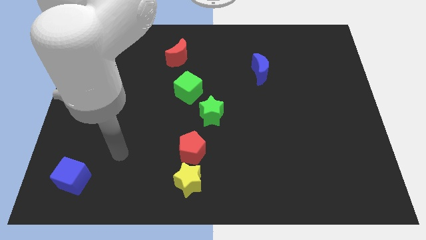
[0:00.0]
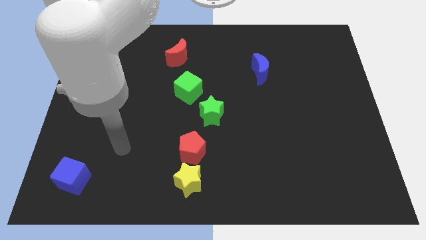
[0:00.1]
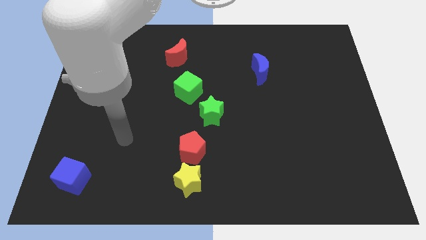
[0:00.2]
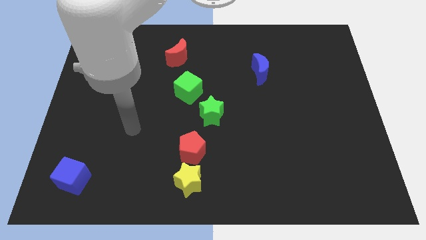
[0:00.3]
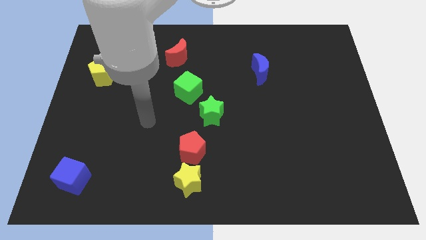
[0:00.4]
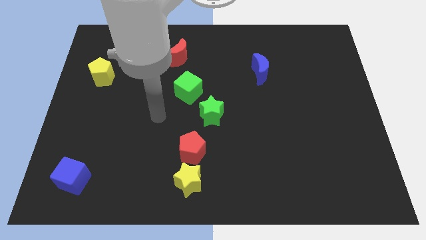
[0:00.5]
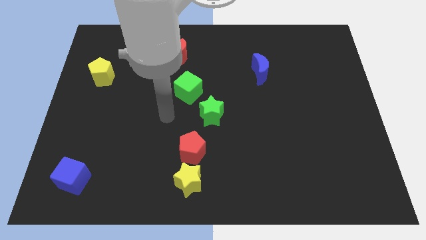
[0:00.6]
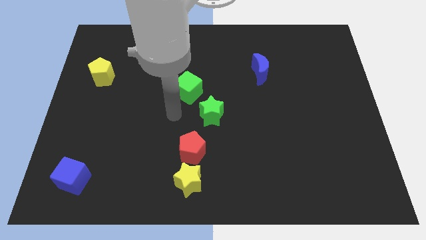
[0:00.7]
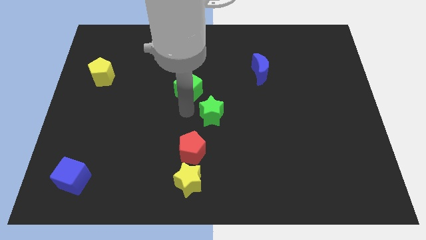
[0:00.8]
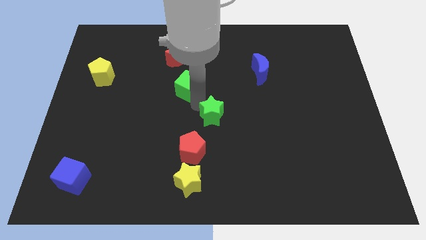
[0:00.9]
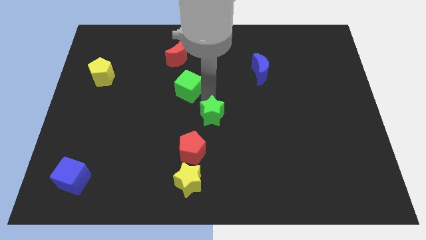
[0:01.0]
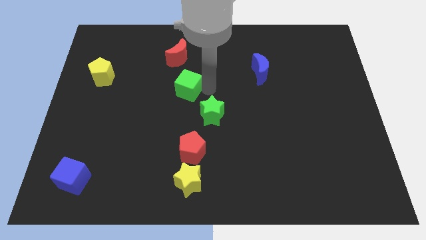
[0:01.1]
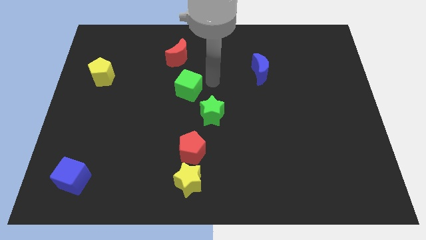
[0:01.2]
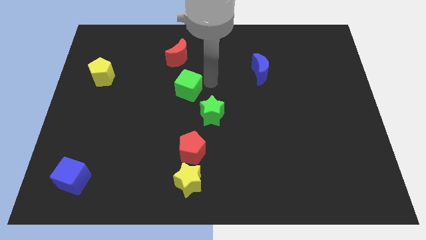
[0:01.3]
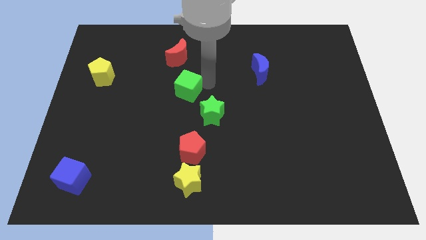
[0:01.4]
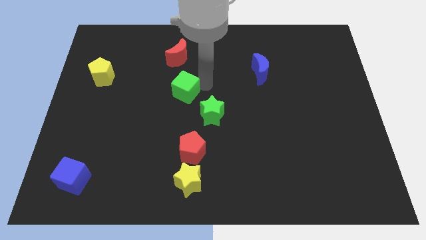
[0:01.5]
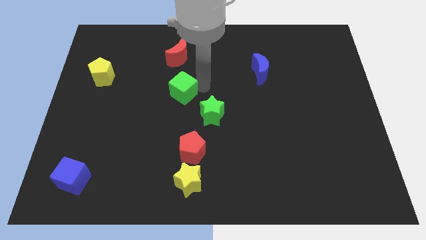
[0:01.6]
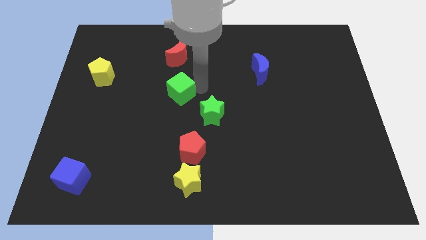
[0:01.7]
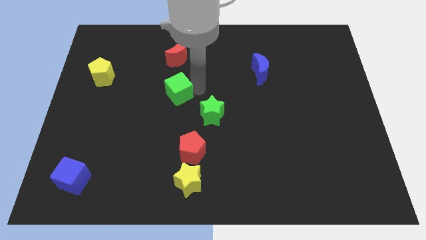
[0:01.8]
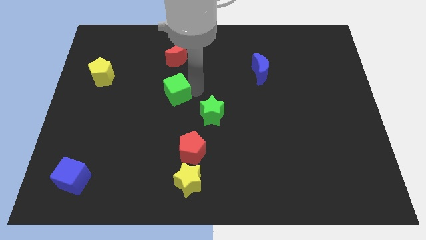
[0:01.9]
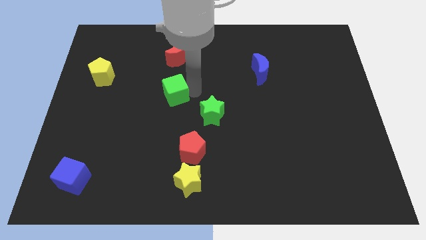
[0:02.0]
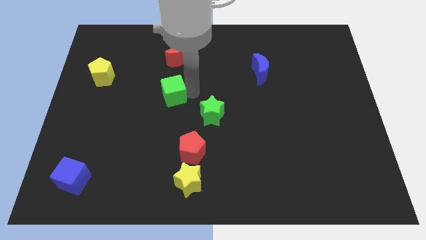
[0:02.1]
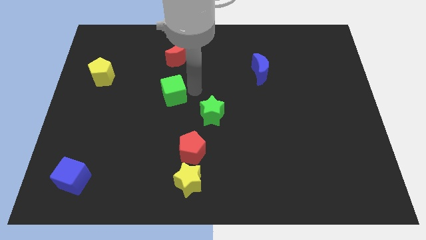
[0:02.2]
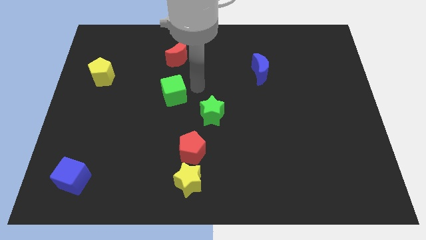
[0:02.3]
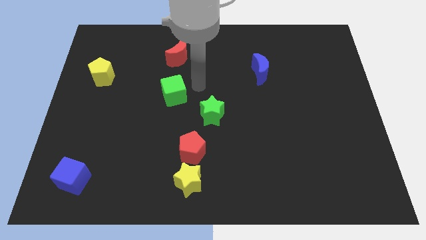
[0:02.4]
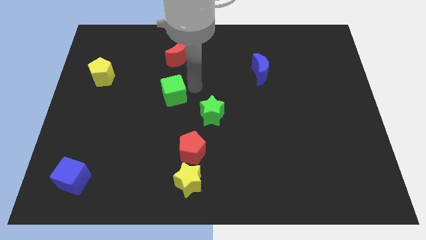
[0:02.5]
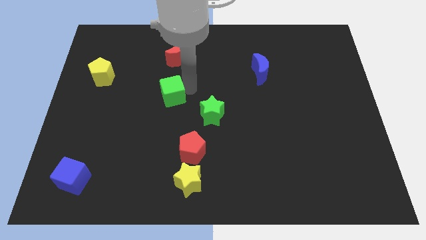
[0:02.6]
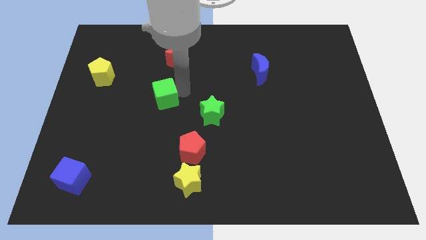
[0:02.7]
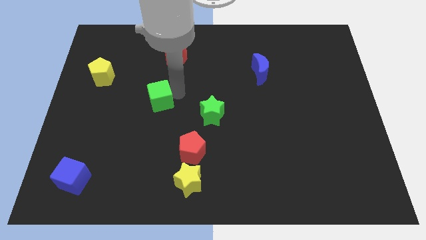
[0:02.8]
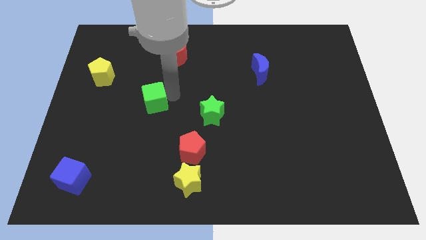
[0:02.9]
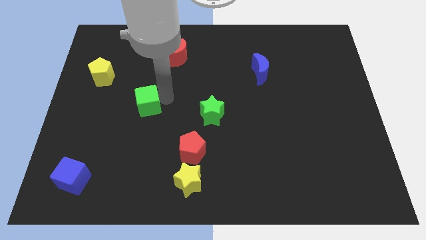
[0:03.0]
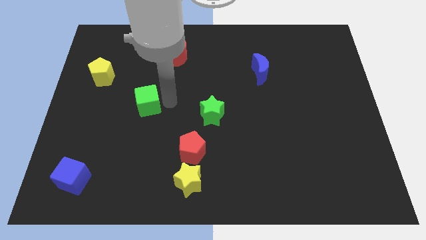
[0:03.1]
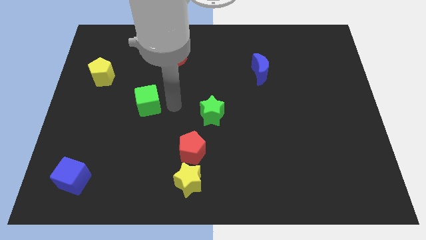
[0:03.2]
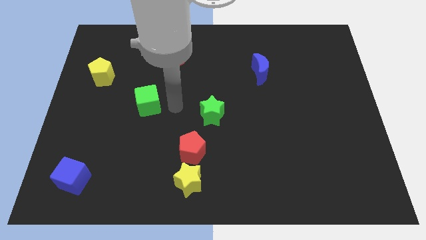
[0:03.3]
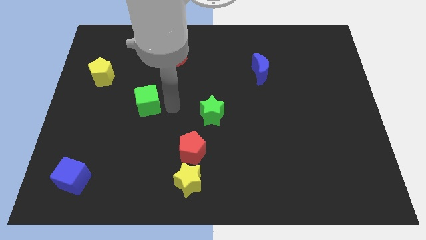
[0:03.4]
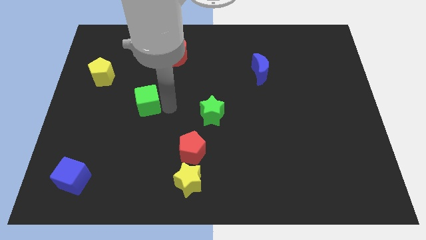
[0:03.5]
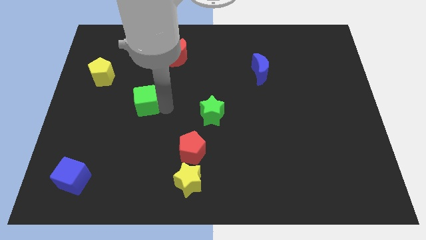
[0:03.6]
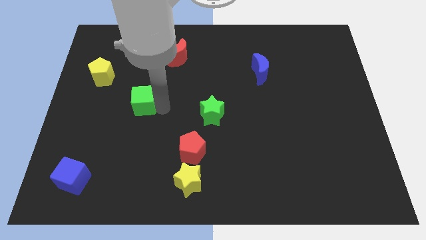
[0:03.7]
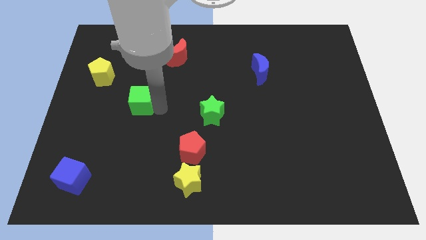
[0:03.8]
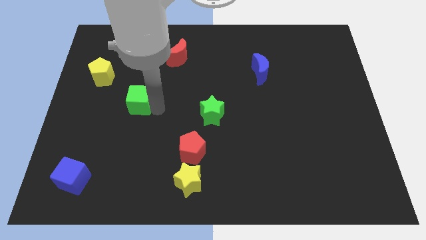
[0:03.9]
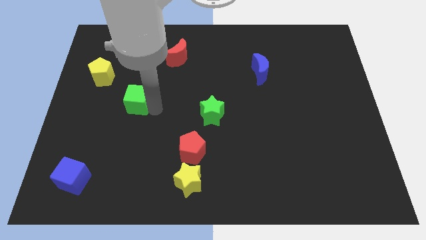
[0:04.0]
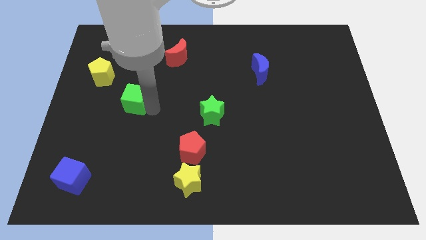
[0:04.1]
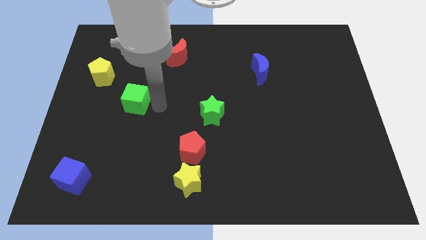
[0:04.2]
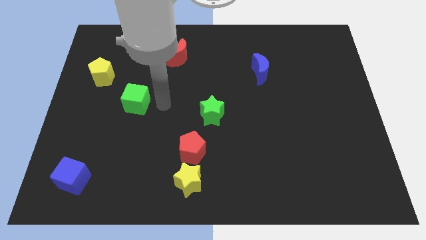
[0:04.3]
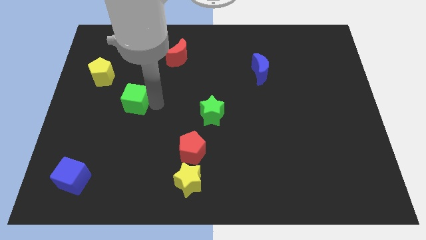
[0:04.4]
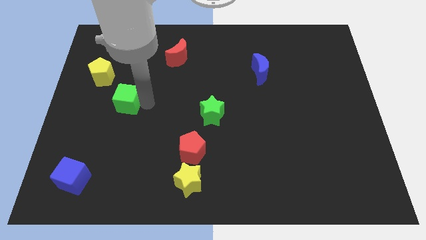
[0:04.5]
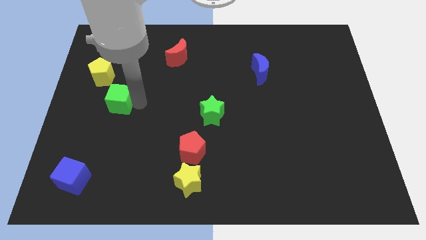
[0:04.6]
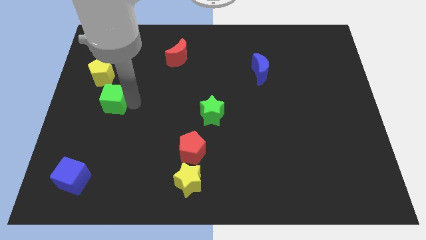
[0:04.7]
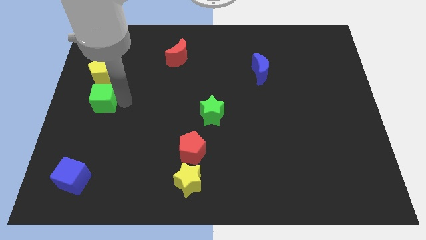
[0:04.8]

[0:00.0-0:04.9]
push the green cube to the center left

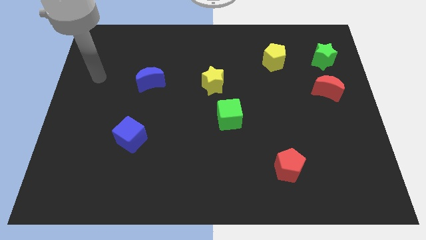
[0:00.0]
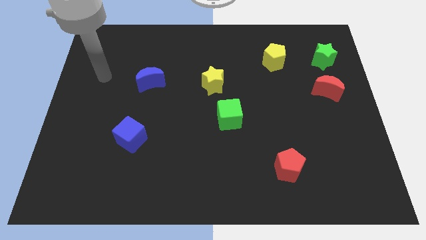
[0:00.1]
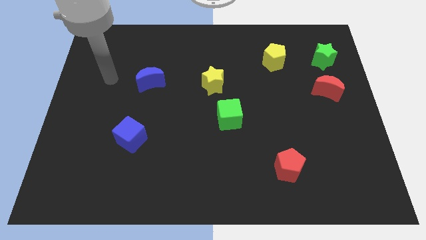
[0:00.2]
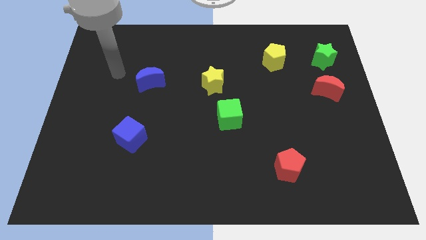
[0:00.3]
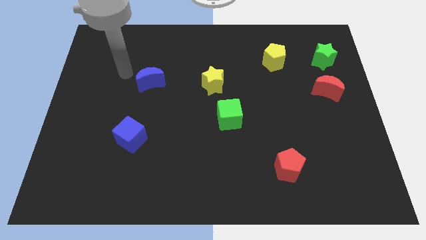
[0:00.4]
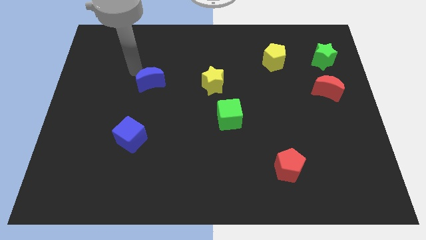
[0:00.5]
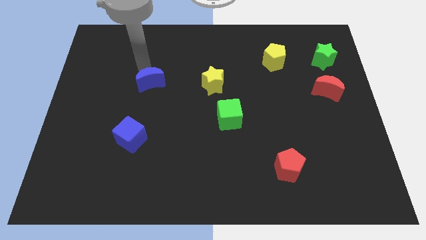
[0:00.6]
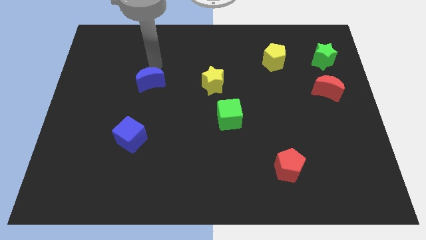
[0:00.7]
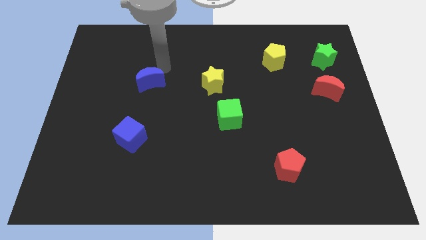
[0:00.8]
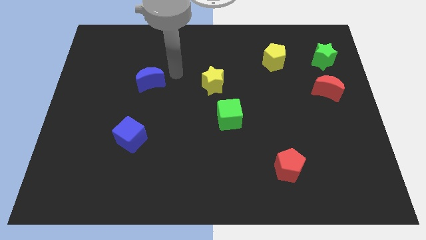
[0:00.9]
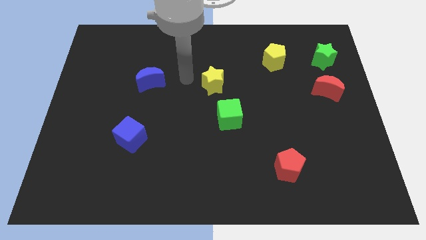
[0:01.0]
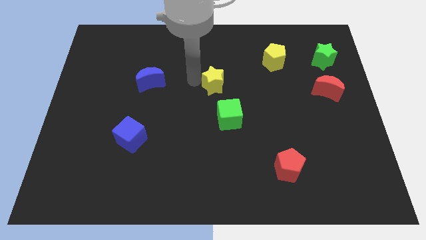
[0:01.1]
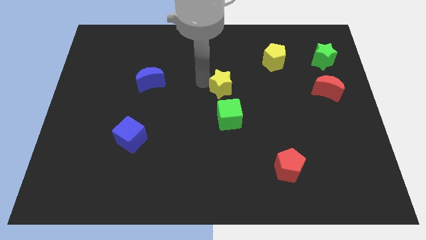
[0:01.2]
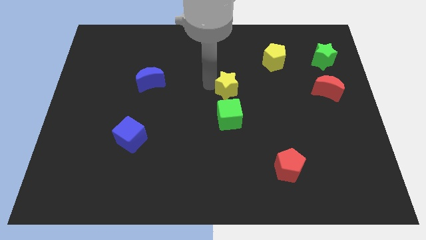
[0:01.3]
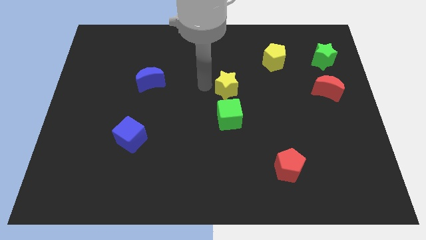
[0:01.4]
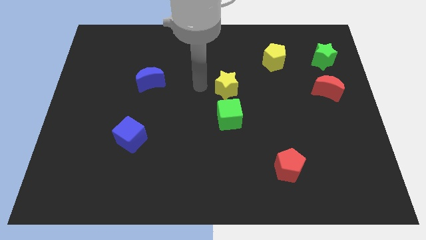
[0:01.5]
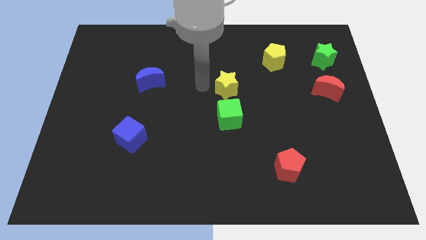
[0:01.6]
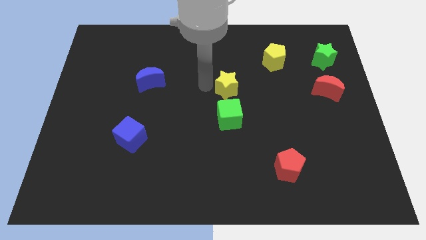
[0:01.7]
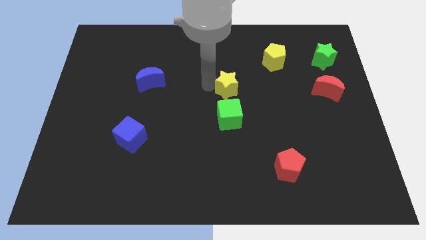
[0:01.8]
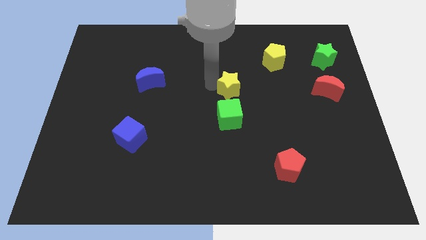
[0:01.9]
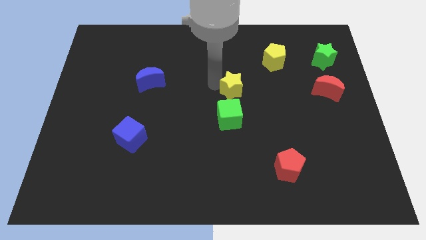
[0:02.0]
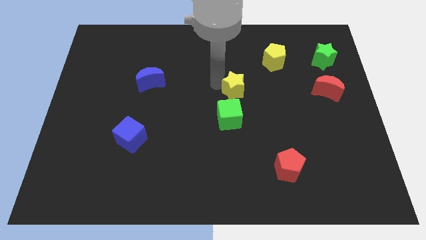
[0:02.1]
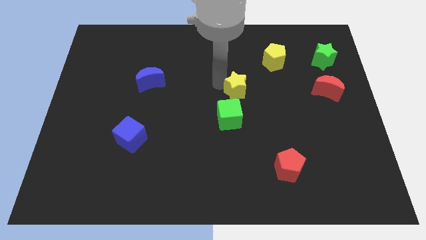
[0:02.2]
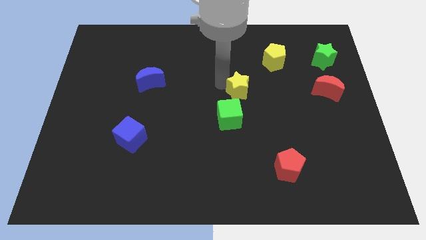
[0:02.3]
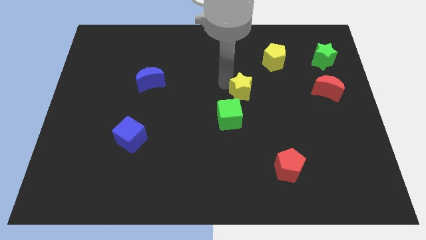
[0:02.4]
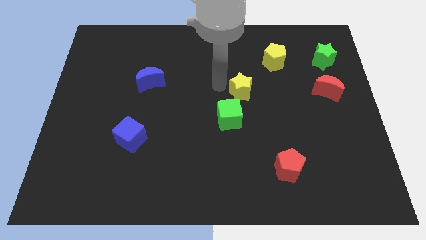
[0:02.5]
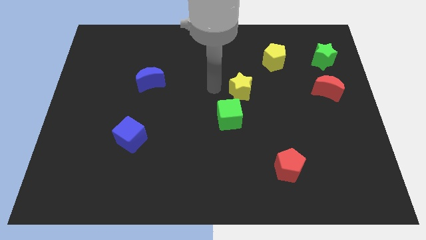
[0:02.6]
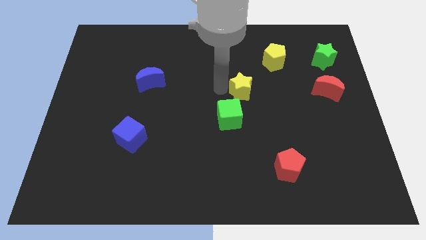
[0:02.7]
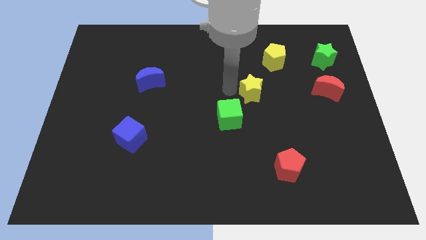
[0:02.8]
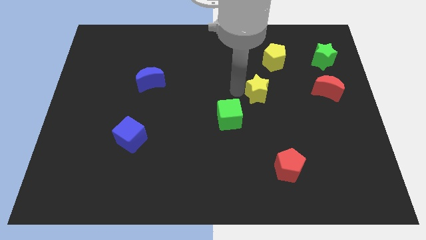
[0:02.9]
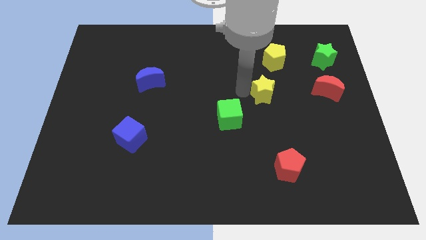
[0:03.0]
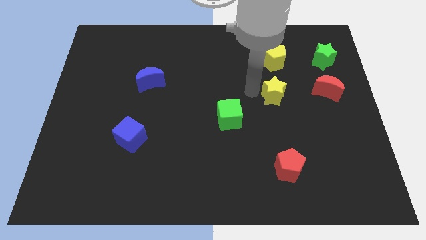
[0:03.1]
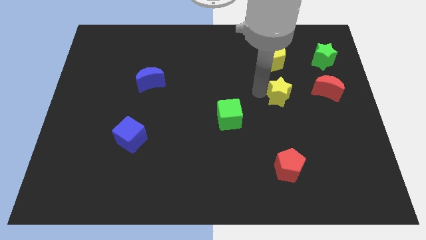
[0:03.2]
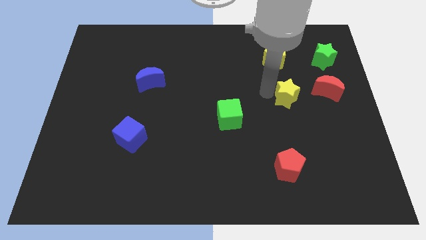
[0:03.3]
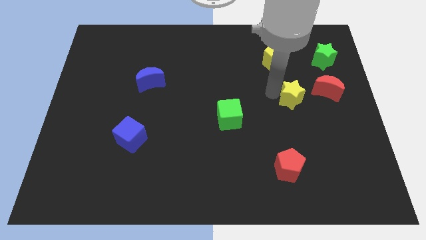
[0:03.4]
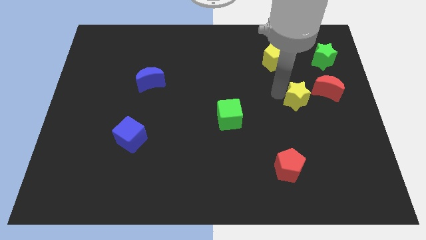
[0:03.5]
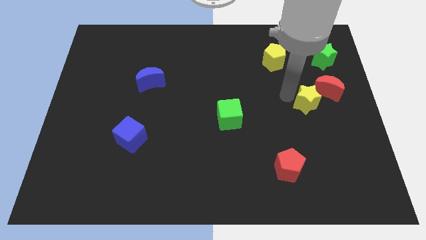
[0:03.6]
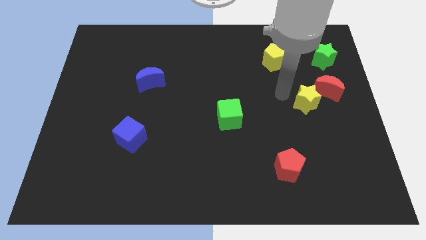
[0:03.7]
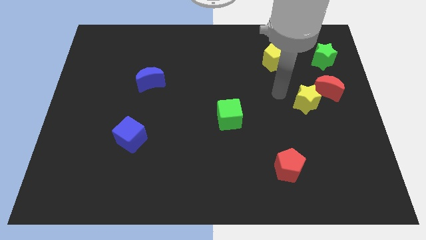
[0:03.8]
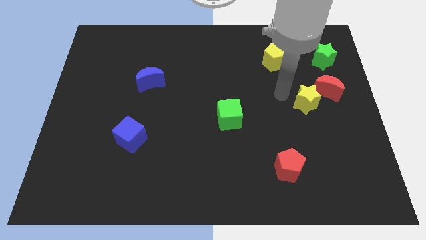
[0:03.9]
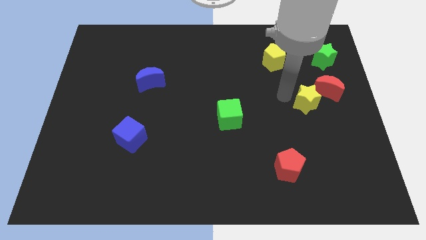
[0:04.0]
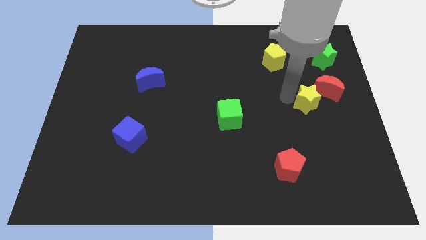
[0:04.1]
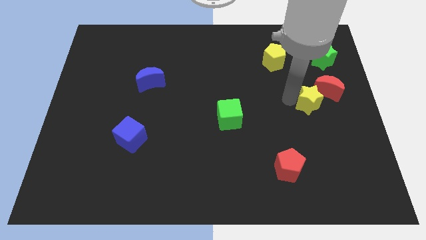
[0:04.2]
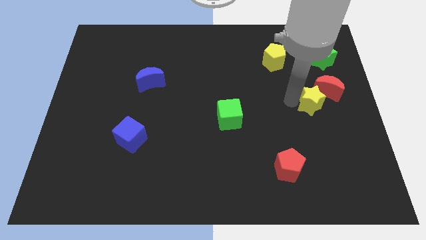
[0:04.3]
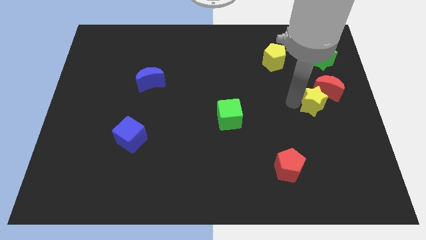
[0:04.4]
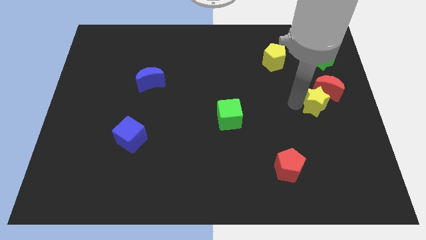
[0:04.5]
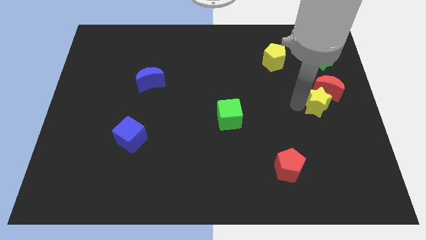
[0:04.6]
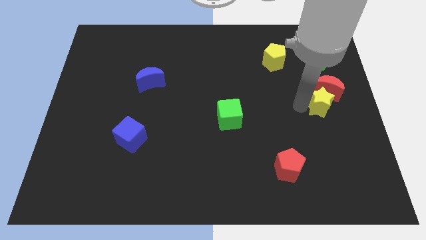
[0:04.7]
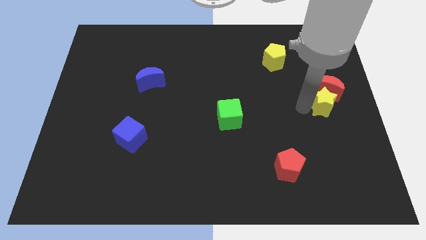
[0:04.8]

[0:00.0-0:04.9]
slide the yellow star to the right side
